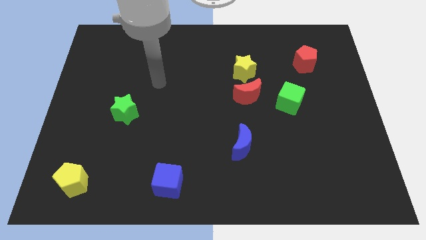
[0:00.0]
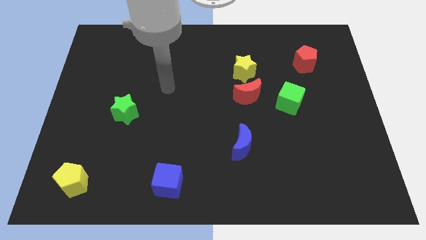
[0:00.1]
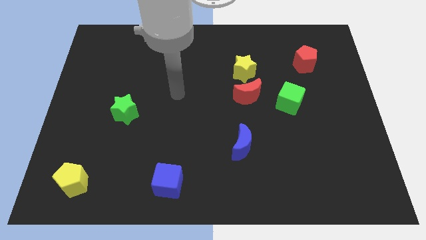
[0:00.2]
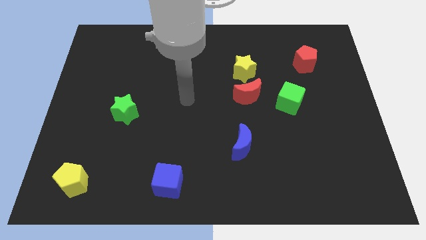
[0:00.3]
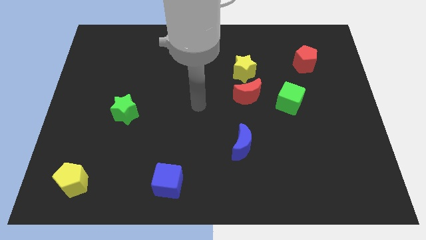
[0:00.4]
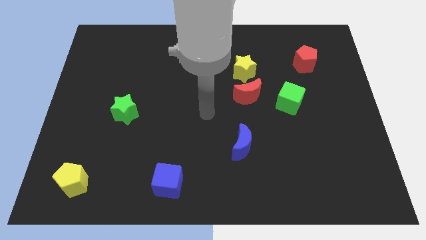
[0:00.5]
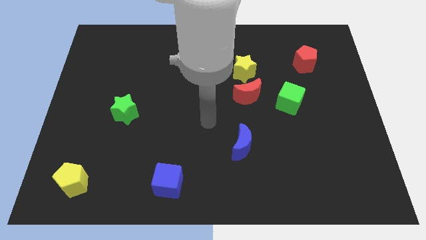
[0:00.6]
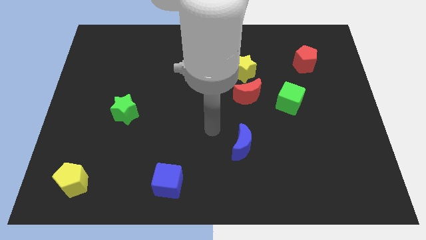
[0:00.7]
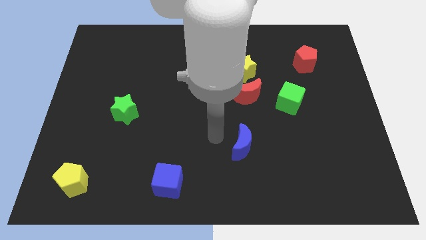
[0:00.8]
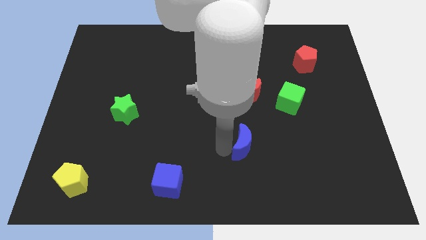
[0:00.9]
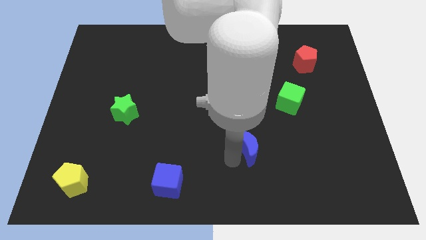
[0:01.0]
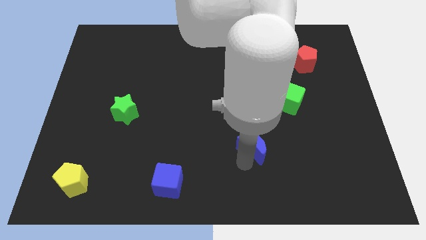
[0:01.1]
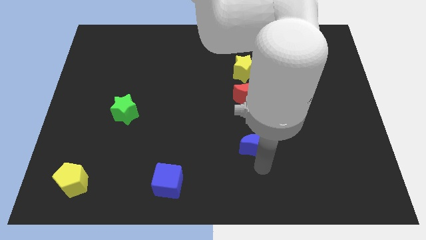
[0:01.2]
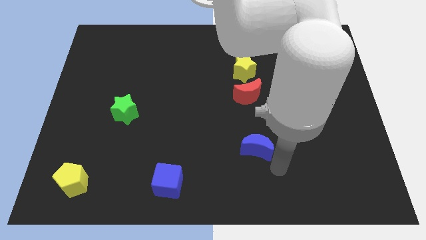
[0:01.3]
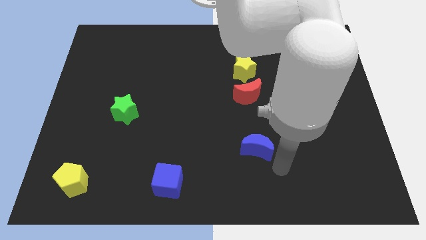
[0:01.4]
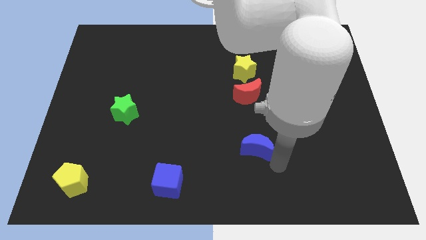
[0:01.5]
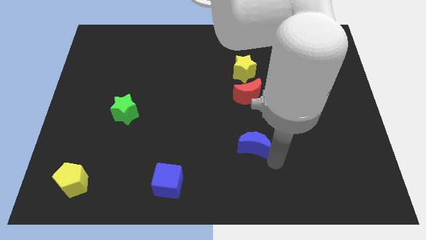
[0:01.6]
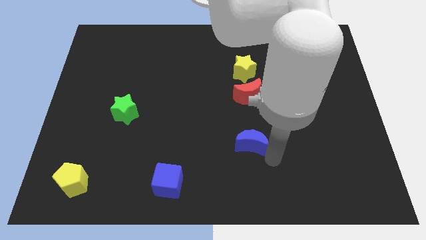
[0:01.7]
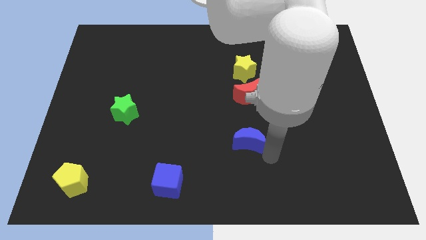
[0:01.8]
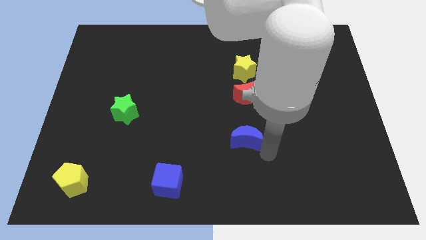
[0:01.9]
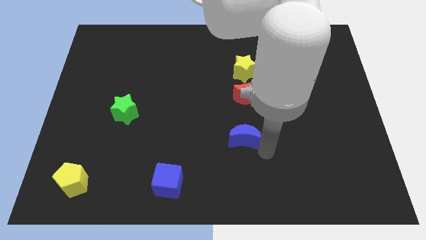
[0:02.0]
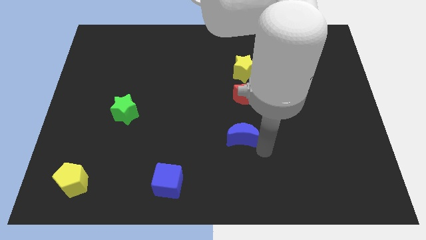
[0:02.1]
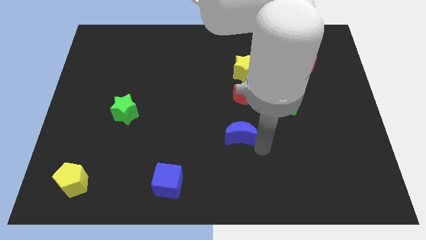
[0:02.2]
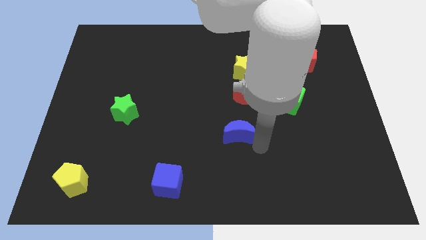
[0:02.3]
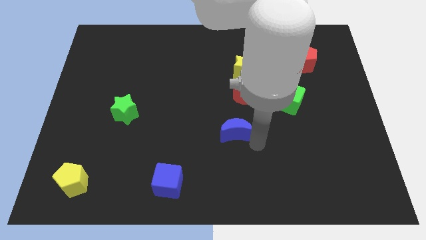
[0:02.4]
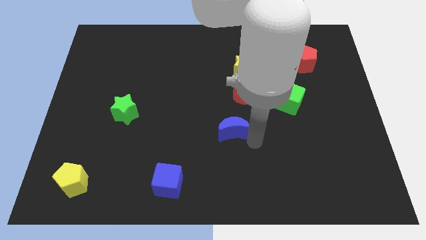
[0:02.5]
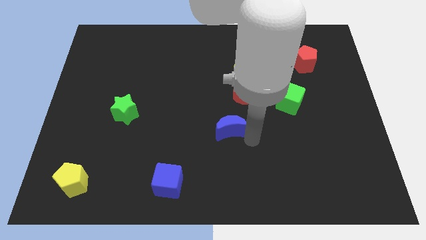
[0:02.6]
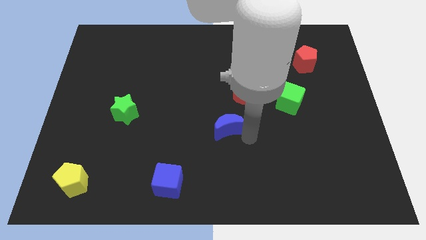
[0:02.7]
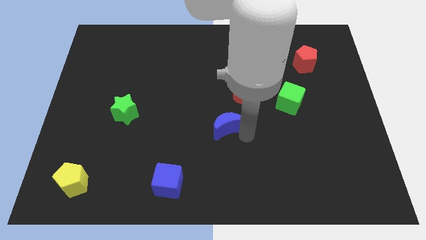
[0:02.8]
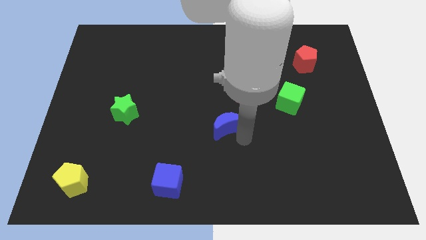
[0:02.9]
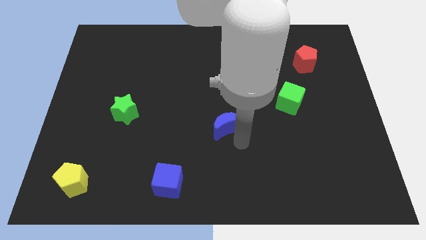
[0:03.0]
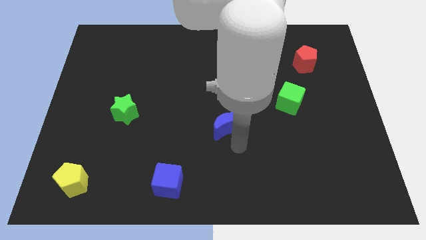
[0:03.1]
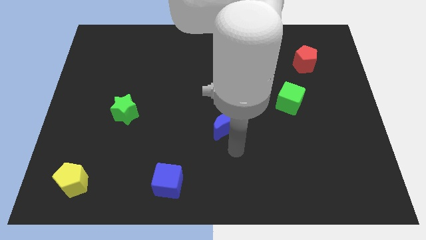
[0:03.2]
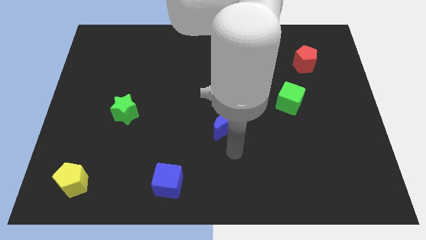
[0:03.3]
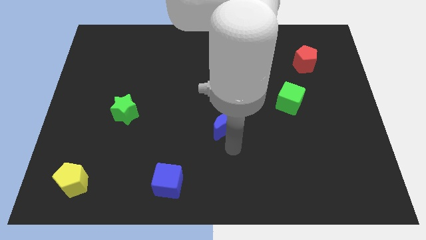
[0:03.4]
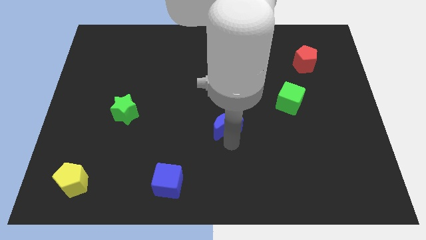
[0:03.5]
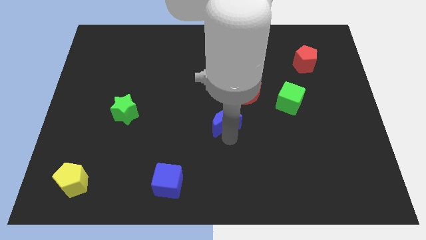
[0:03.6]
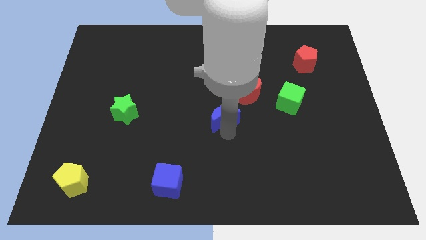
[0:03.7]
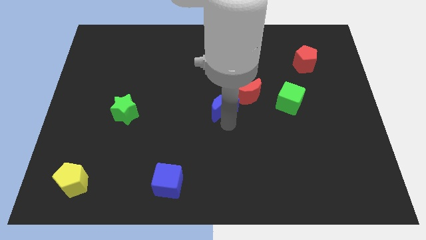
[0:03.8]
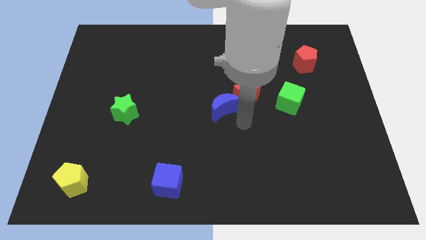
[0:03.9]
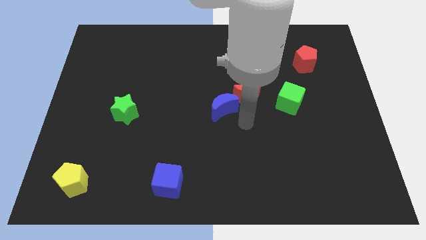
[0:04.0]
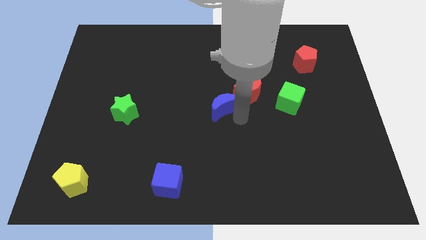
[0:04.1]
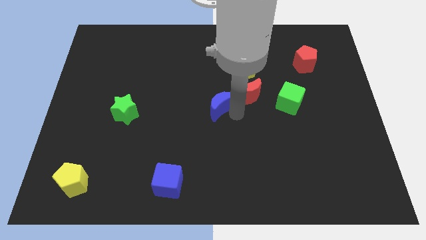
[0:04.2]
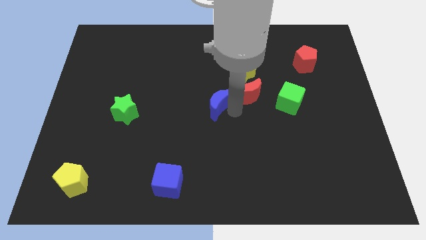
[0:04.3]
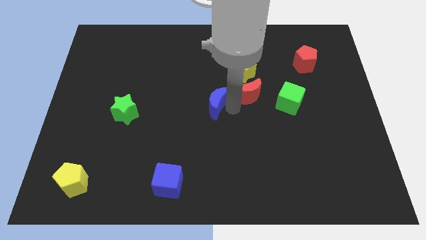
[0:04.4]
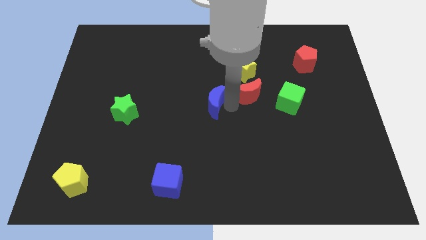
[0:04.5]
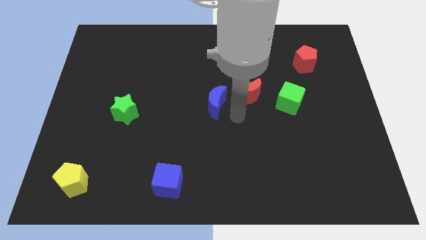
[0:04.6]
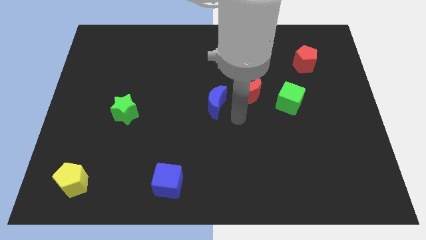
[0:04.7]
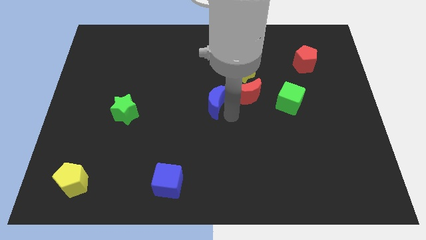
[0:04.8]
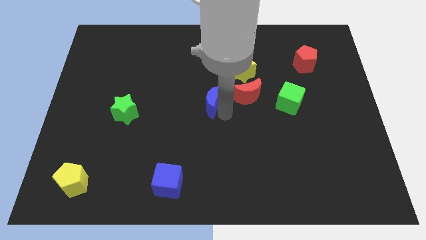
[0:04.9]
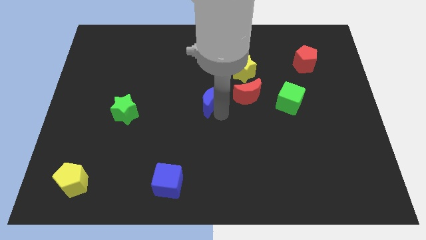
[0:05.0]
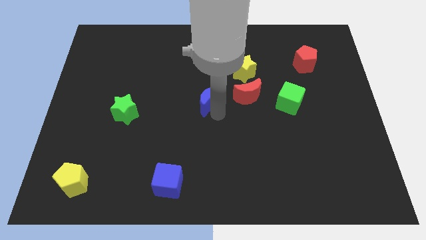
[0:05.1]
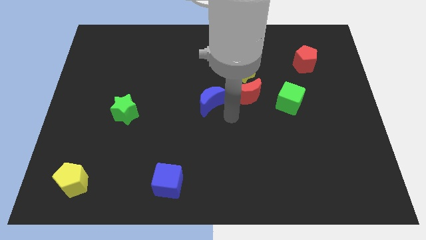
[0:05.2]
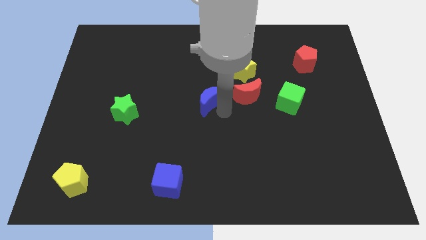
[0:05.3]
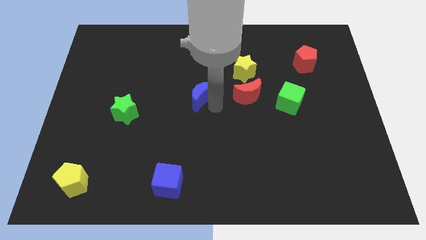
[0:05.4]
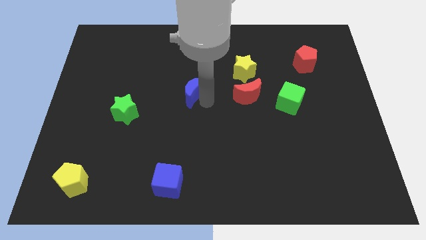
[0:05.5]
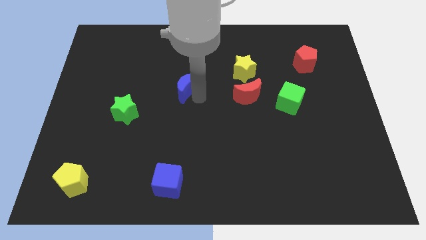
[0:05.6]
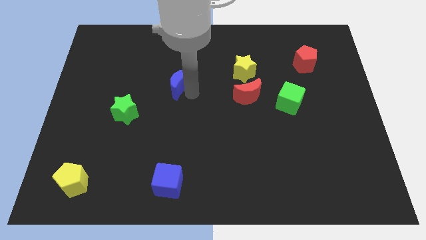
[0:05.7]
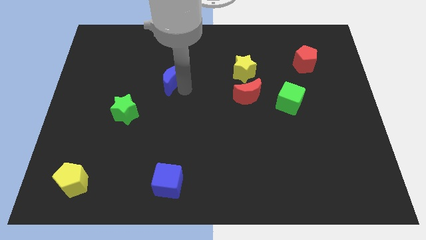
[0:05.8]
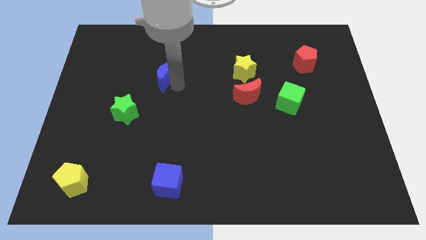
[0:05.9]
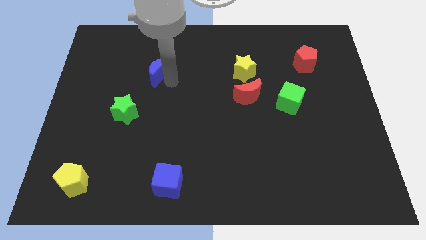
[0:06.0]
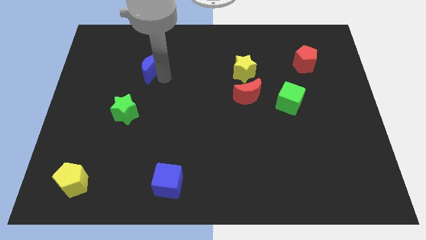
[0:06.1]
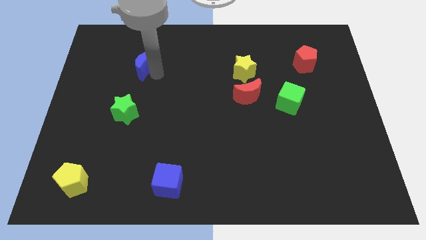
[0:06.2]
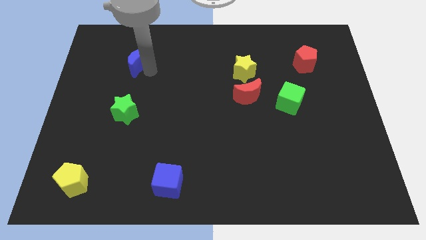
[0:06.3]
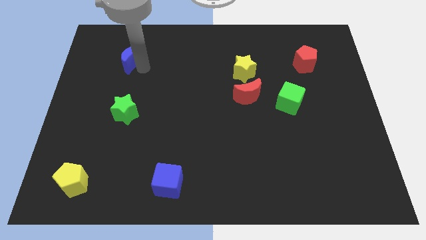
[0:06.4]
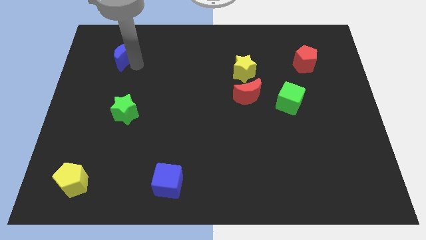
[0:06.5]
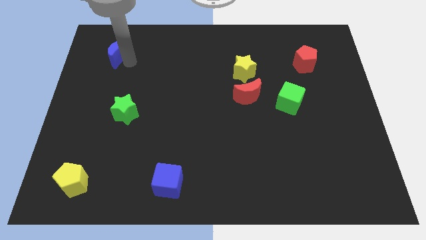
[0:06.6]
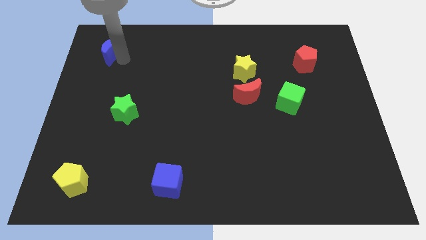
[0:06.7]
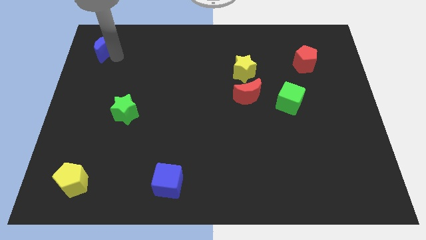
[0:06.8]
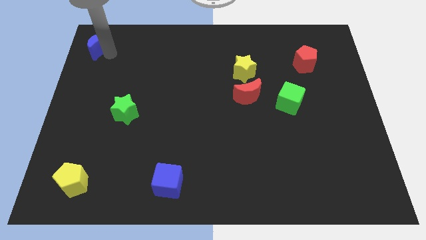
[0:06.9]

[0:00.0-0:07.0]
put the blue moon to the upper left corner

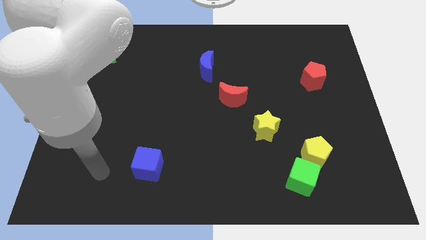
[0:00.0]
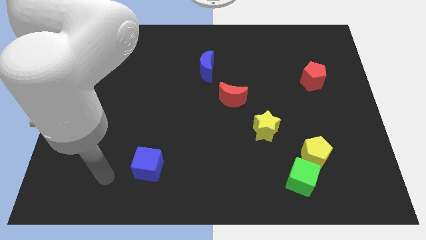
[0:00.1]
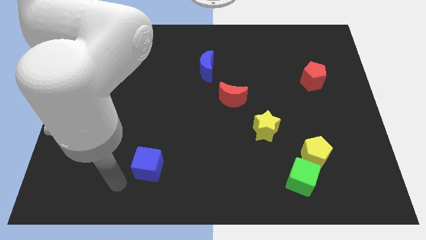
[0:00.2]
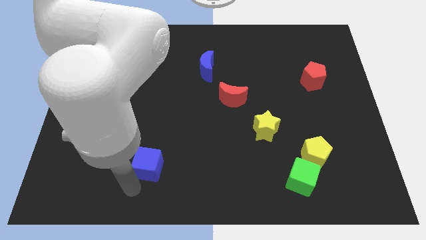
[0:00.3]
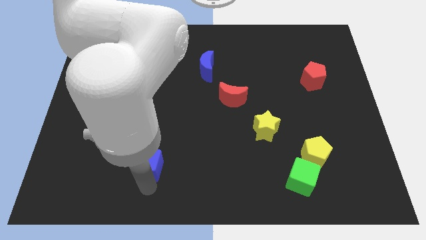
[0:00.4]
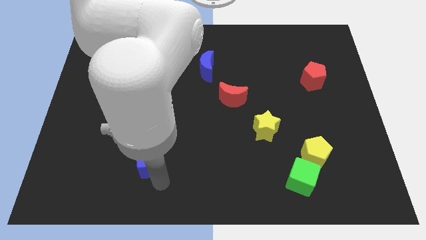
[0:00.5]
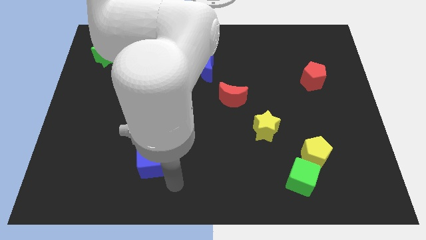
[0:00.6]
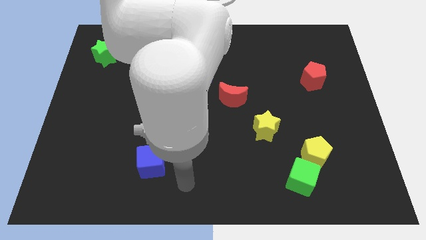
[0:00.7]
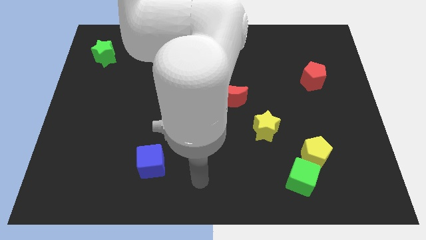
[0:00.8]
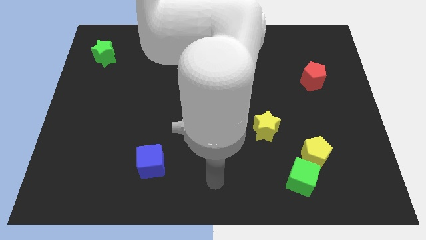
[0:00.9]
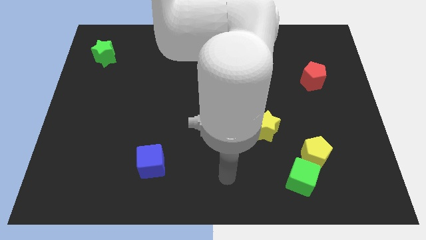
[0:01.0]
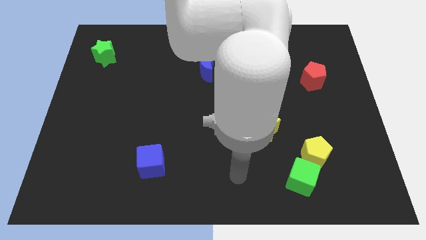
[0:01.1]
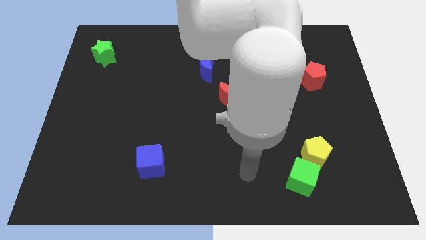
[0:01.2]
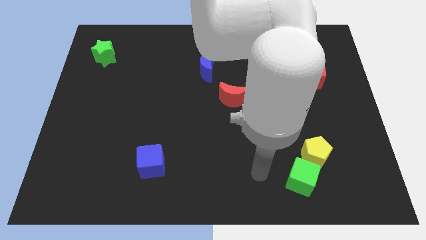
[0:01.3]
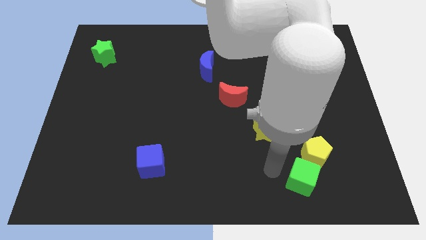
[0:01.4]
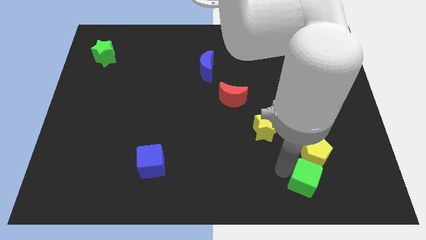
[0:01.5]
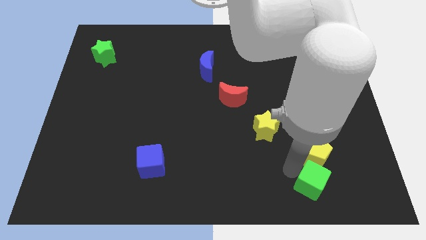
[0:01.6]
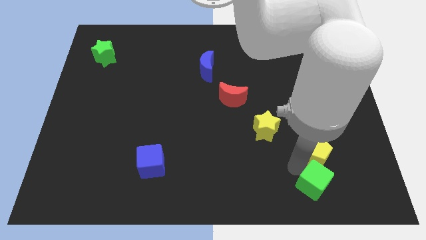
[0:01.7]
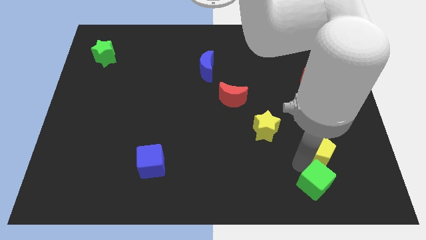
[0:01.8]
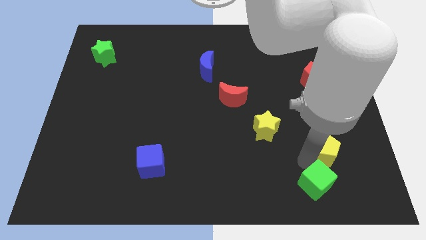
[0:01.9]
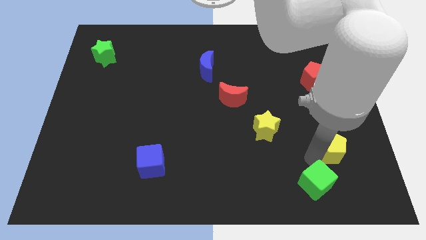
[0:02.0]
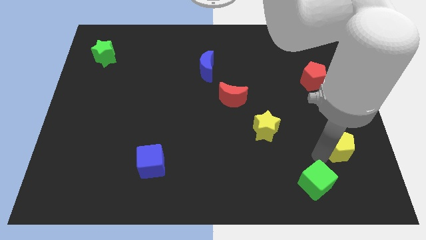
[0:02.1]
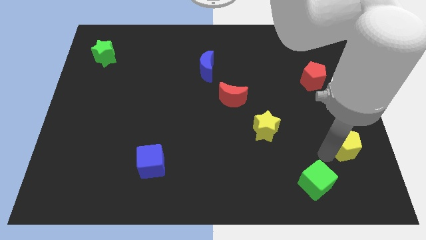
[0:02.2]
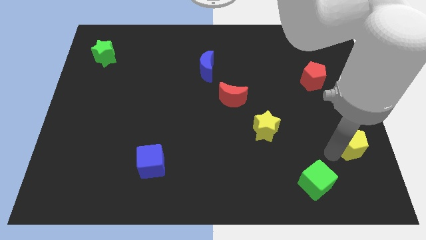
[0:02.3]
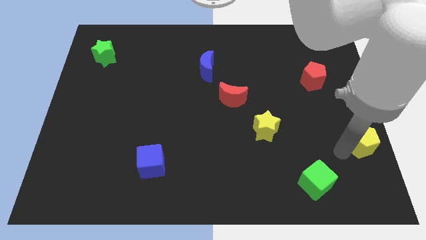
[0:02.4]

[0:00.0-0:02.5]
slide the yellow pentagon to the right side of the board
